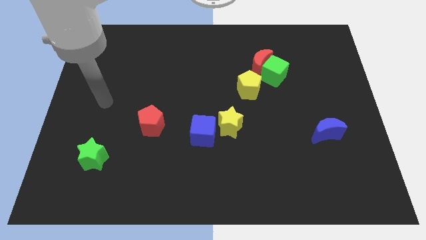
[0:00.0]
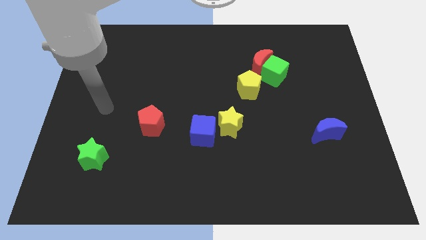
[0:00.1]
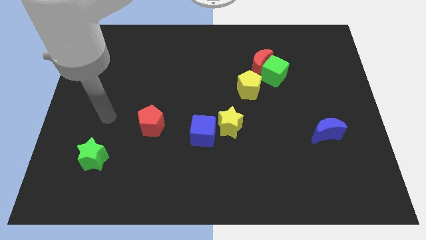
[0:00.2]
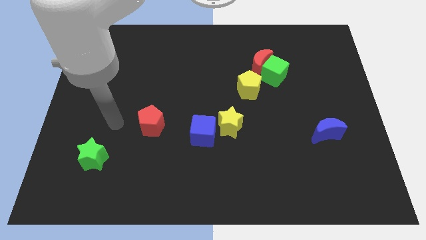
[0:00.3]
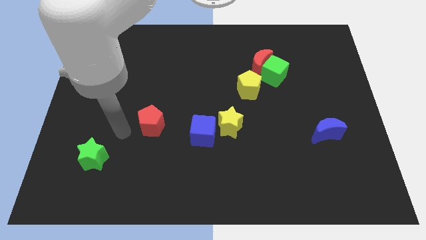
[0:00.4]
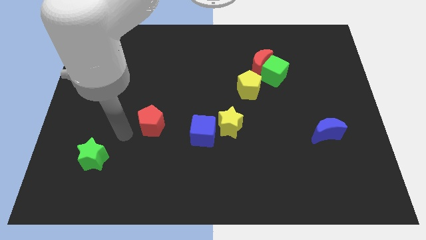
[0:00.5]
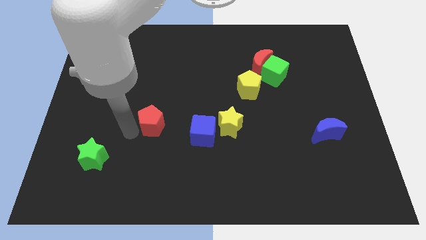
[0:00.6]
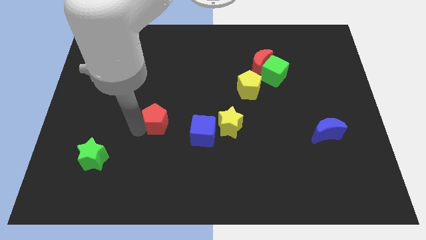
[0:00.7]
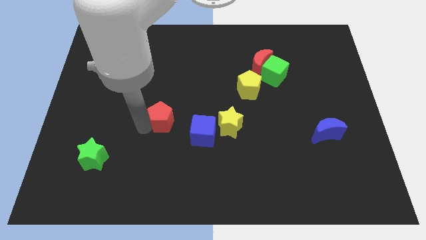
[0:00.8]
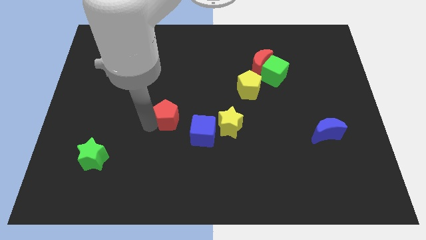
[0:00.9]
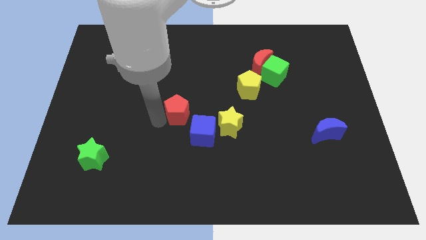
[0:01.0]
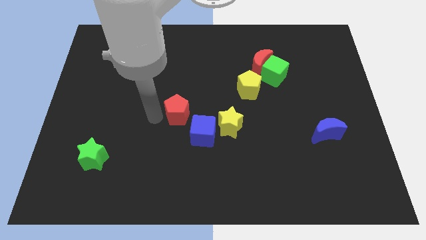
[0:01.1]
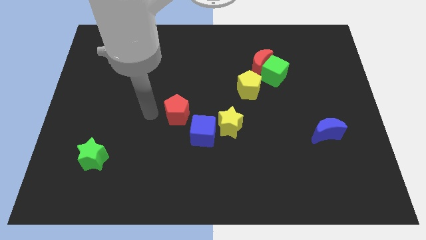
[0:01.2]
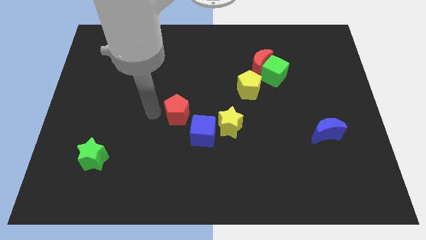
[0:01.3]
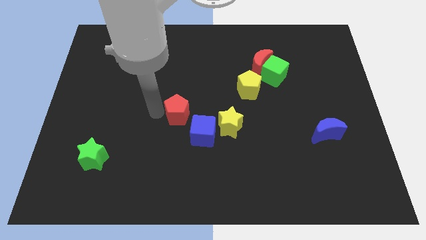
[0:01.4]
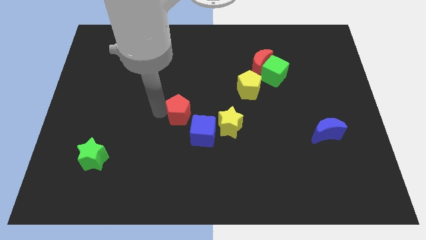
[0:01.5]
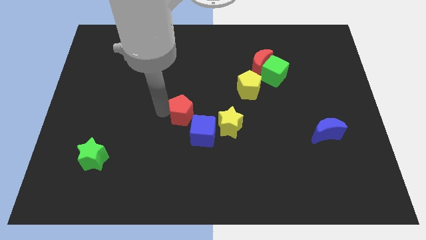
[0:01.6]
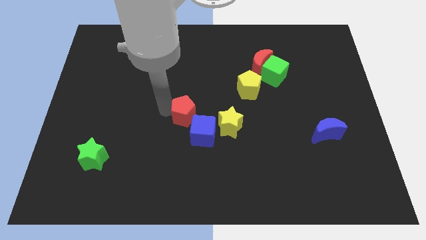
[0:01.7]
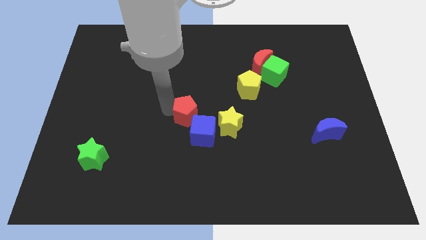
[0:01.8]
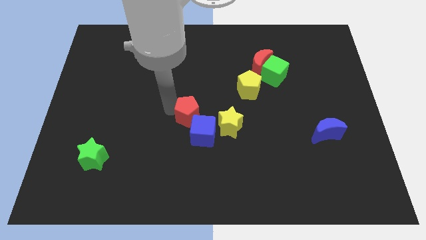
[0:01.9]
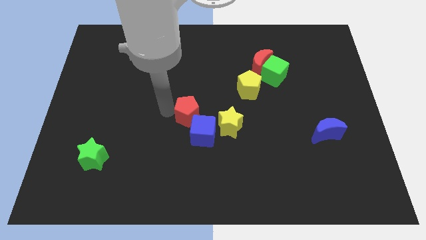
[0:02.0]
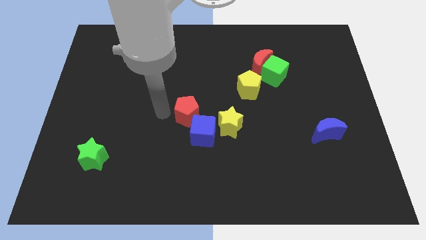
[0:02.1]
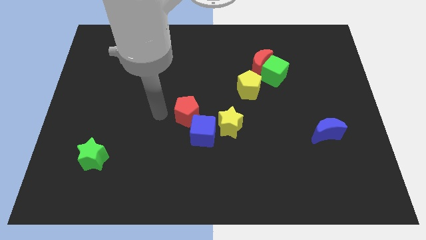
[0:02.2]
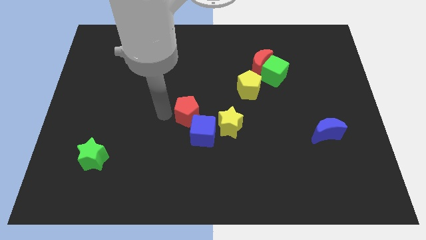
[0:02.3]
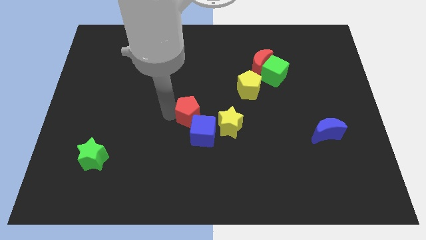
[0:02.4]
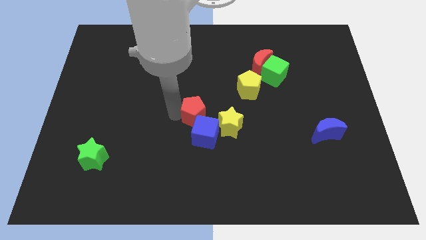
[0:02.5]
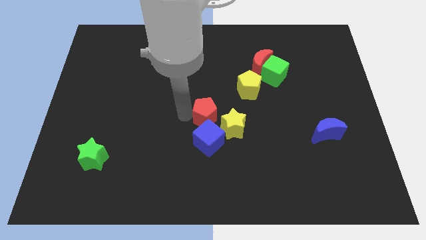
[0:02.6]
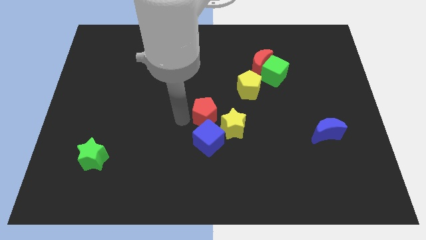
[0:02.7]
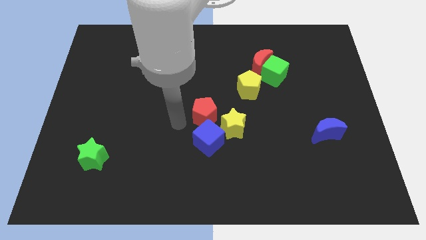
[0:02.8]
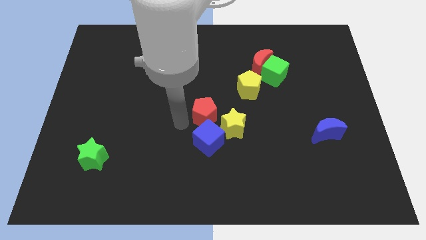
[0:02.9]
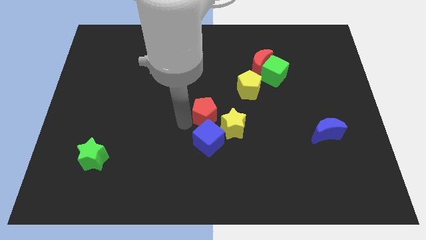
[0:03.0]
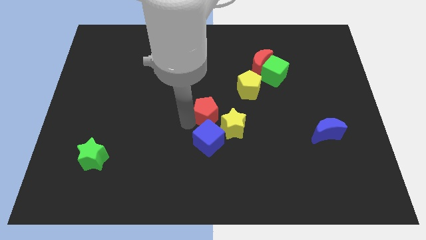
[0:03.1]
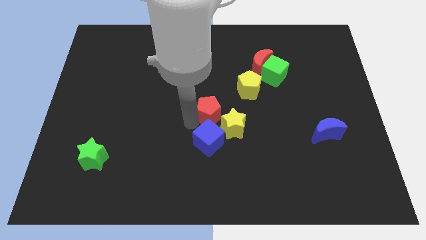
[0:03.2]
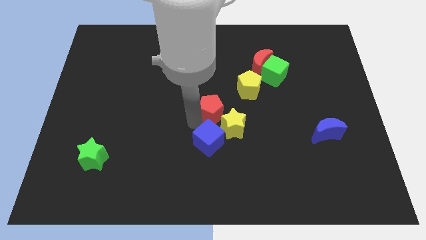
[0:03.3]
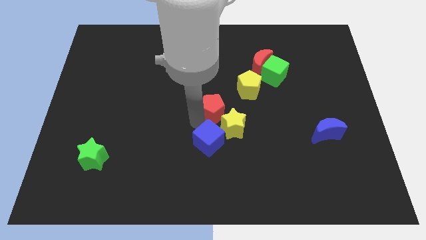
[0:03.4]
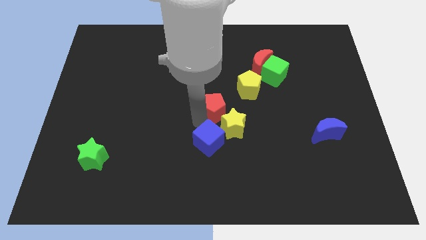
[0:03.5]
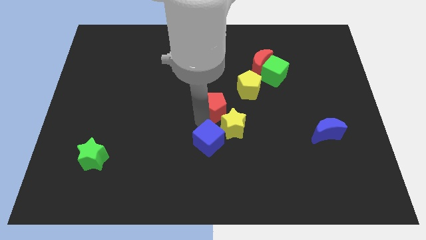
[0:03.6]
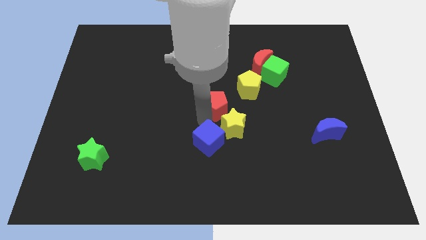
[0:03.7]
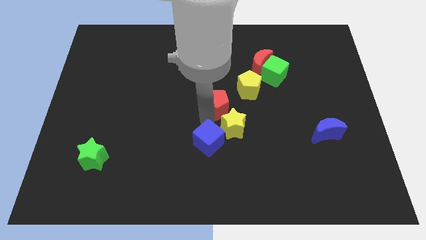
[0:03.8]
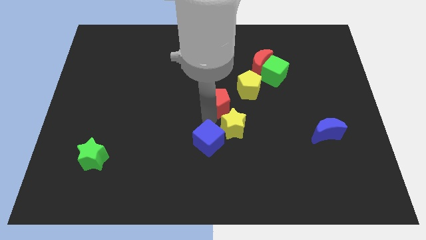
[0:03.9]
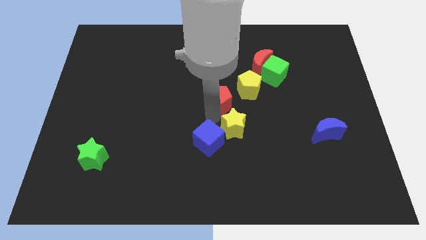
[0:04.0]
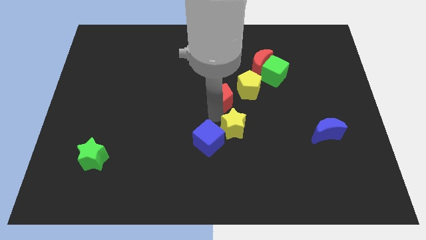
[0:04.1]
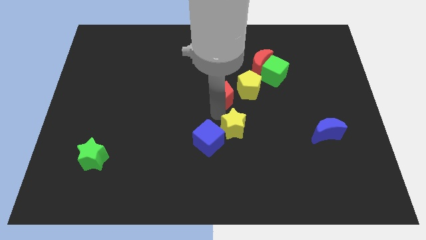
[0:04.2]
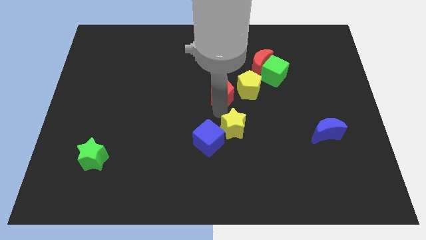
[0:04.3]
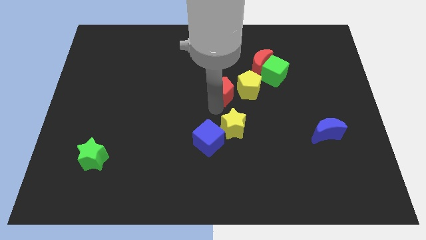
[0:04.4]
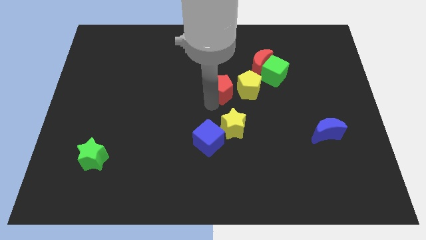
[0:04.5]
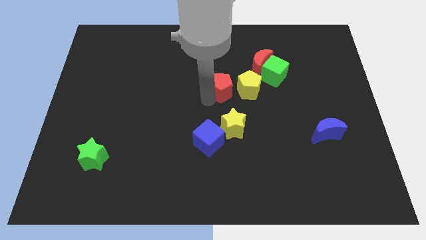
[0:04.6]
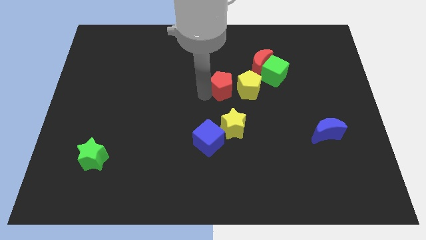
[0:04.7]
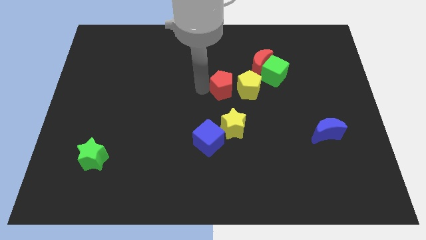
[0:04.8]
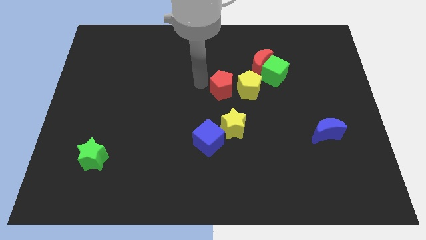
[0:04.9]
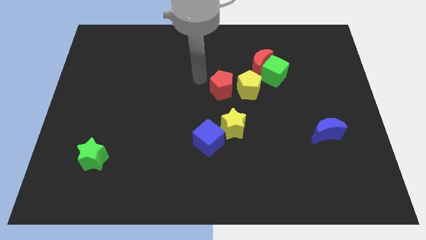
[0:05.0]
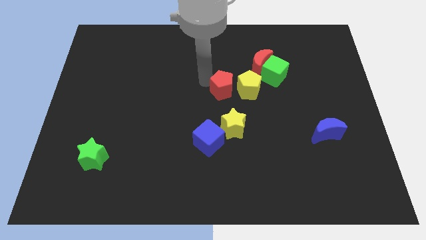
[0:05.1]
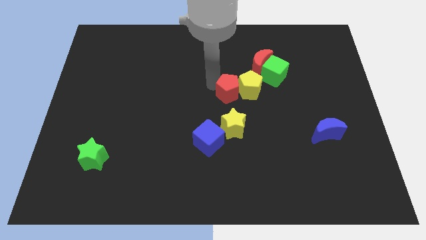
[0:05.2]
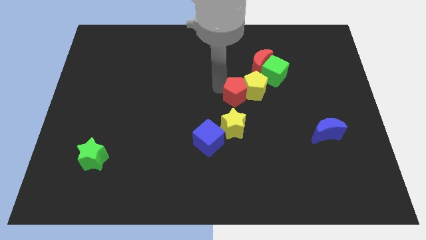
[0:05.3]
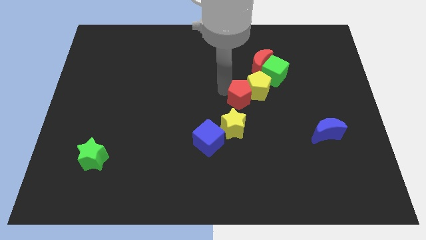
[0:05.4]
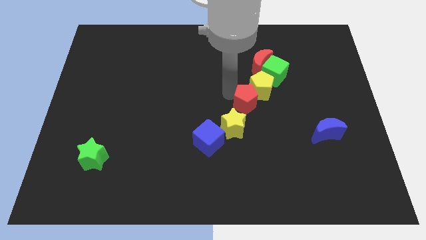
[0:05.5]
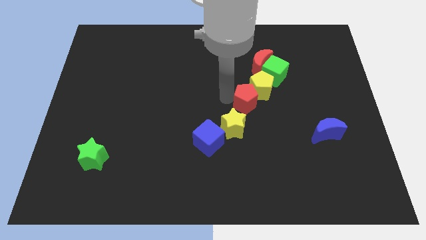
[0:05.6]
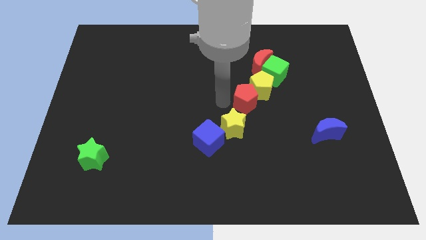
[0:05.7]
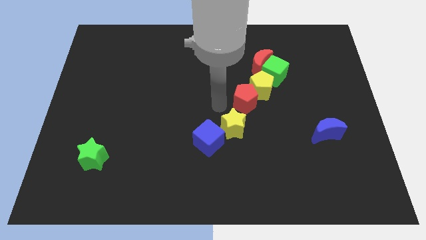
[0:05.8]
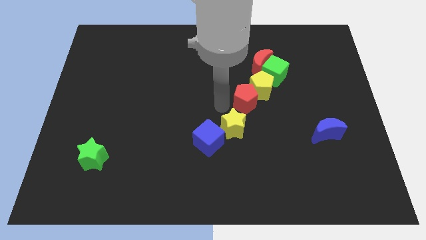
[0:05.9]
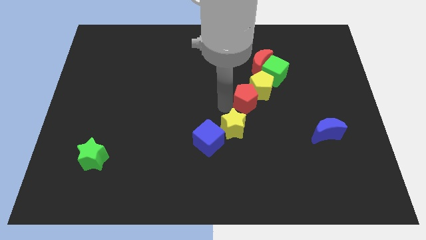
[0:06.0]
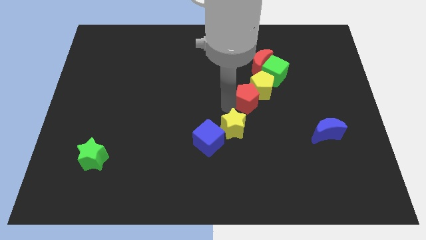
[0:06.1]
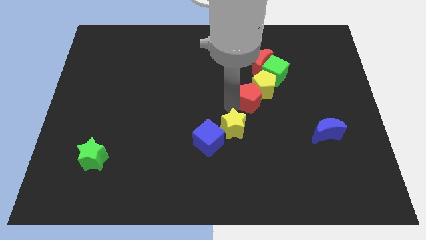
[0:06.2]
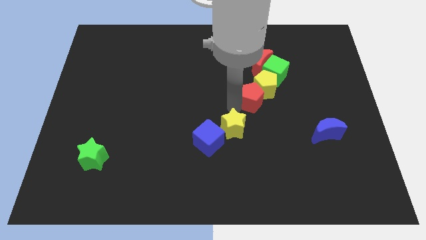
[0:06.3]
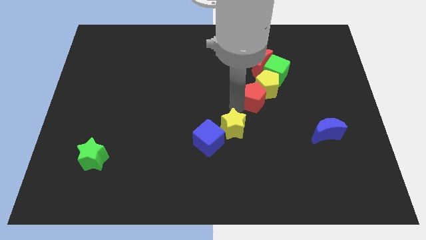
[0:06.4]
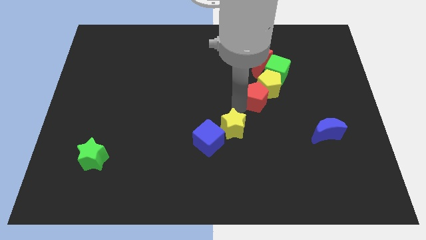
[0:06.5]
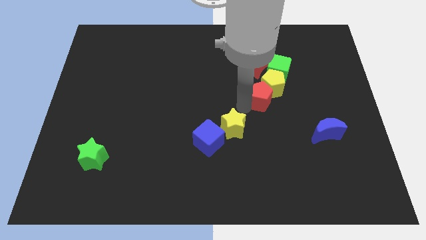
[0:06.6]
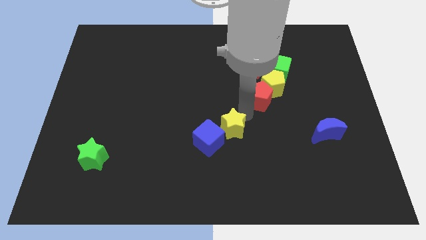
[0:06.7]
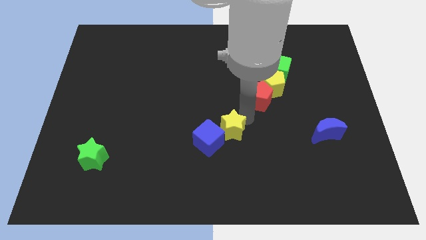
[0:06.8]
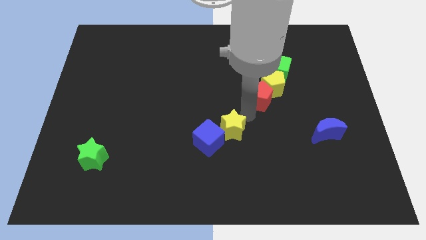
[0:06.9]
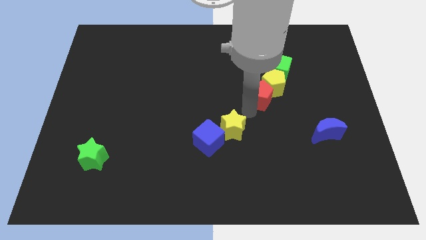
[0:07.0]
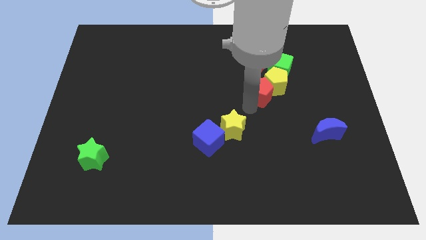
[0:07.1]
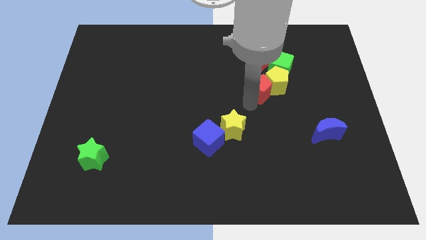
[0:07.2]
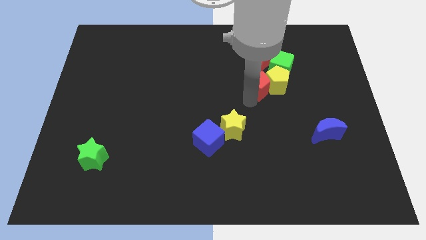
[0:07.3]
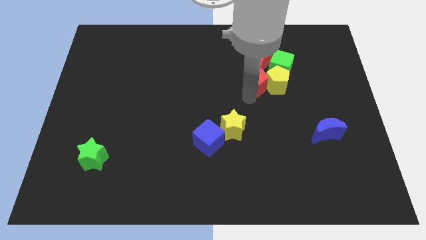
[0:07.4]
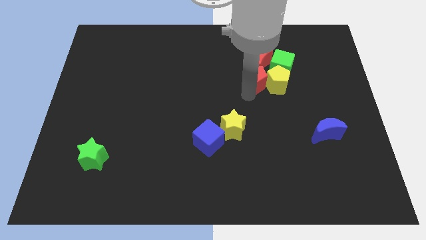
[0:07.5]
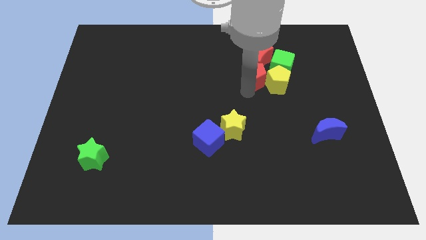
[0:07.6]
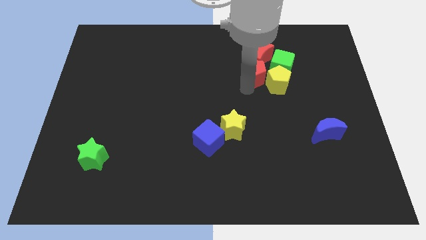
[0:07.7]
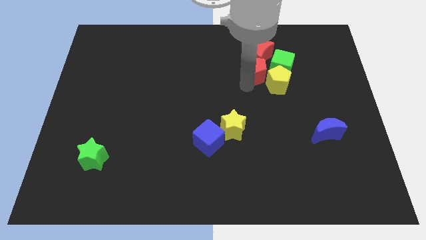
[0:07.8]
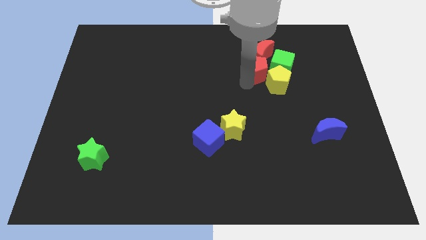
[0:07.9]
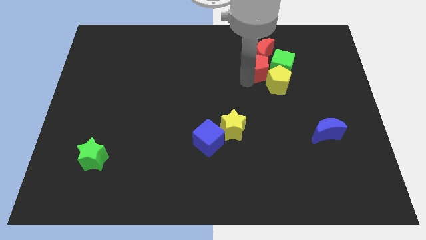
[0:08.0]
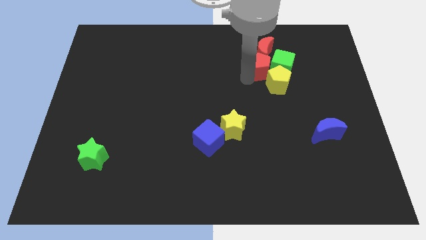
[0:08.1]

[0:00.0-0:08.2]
slide the red pentagon to the green cube
